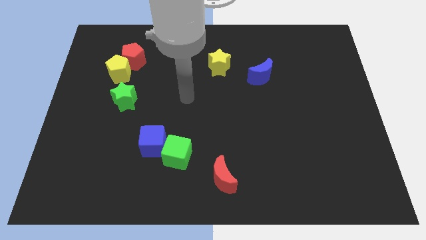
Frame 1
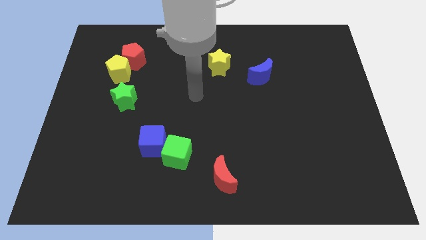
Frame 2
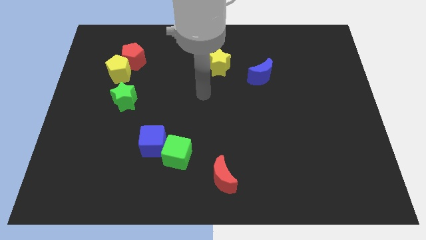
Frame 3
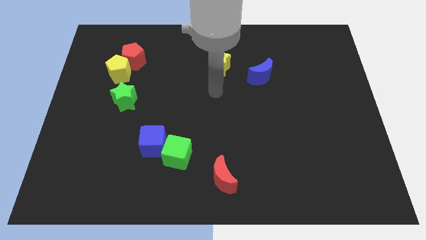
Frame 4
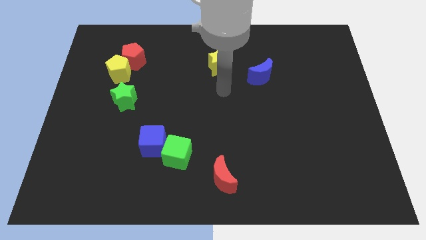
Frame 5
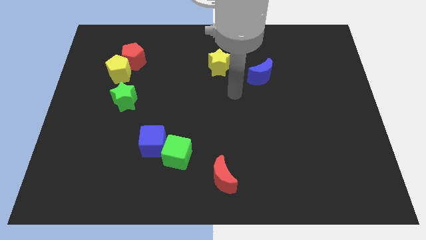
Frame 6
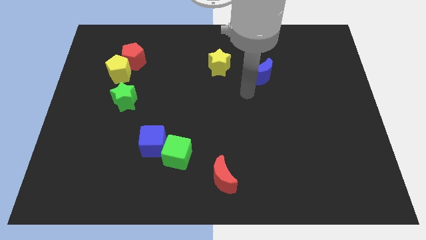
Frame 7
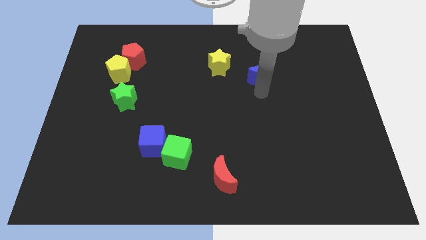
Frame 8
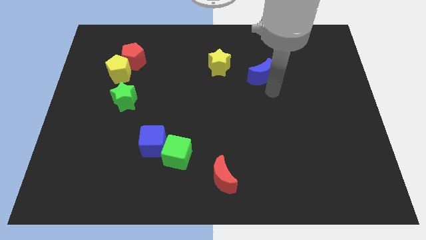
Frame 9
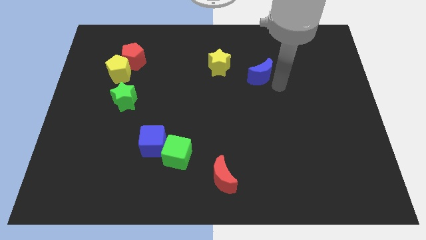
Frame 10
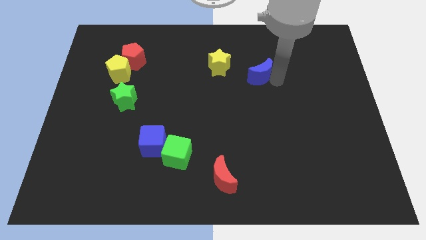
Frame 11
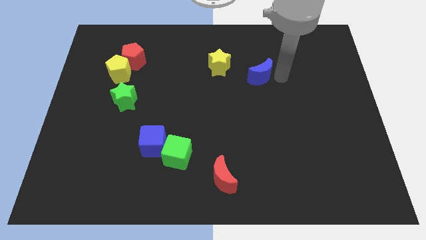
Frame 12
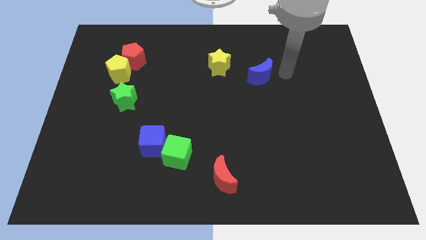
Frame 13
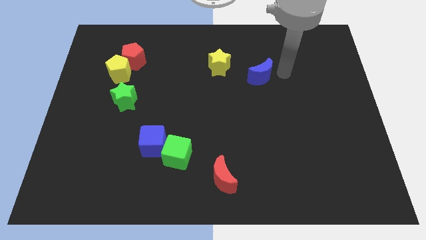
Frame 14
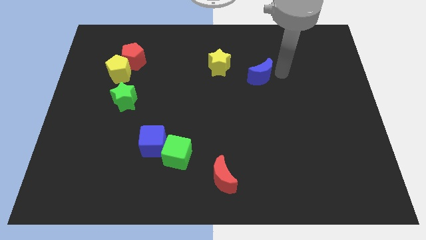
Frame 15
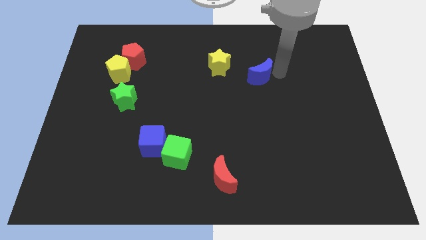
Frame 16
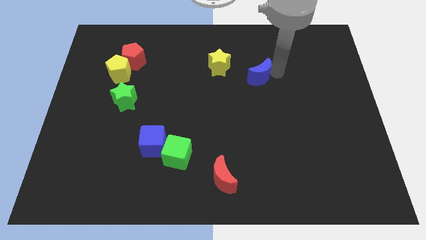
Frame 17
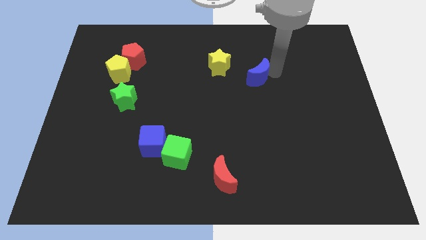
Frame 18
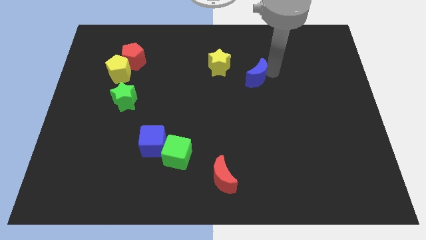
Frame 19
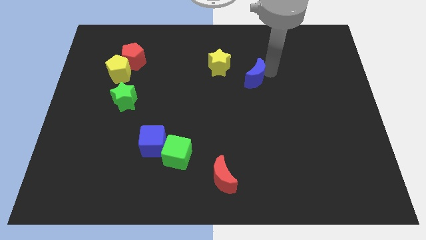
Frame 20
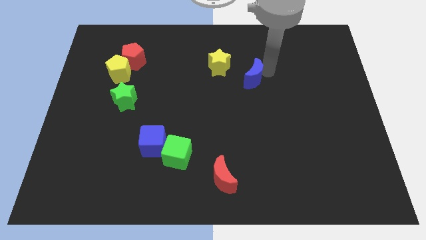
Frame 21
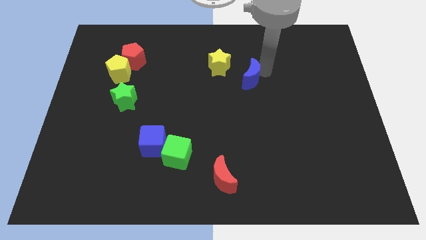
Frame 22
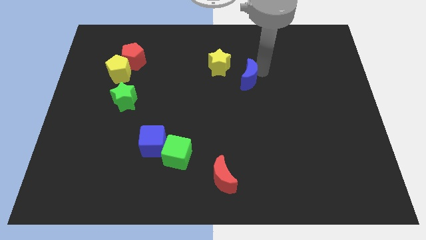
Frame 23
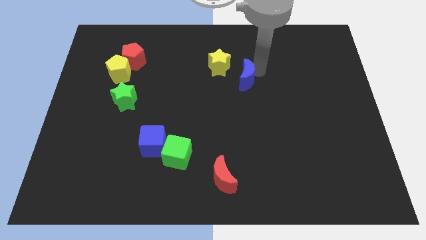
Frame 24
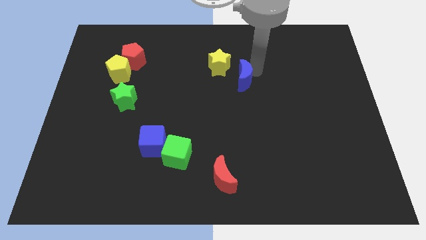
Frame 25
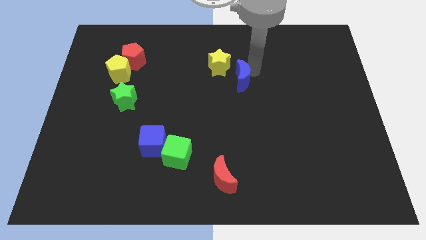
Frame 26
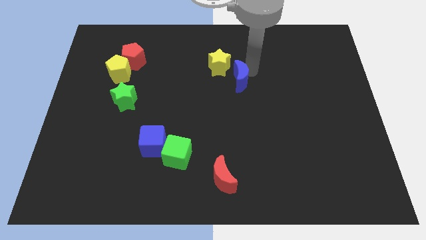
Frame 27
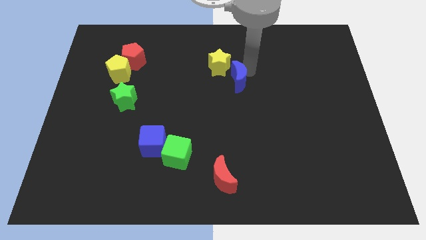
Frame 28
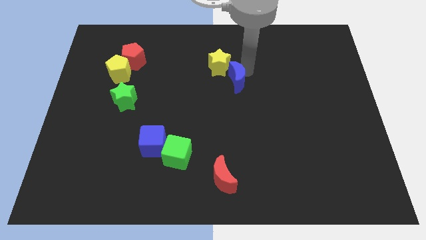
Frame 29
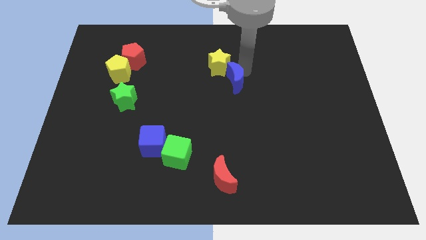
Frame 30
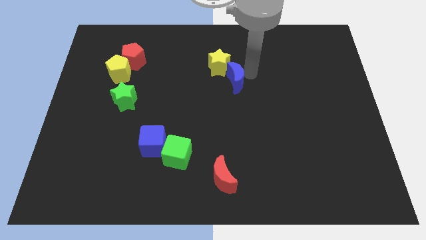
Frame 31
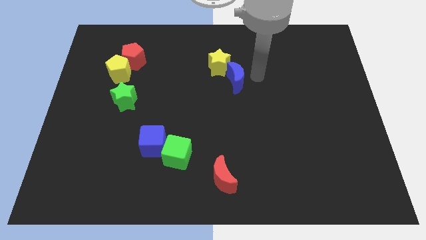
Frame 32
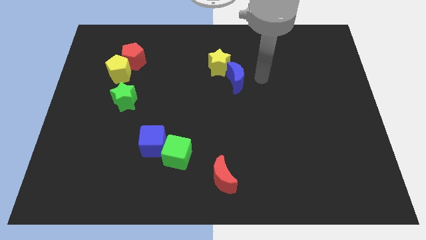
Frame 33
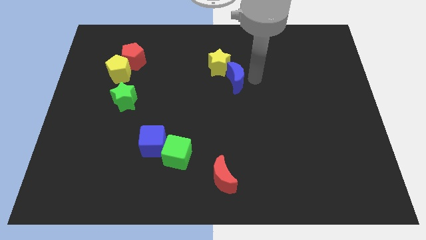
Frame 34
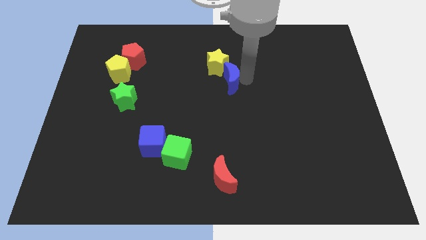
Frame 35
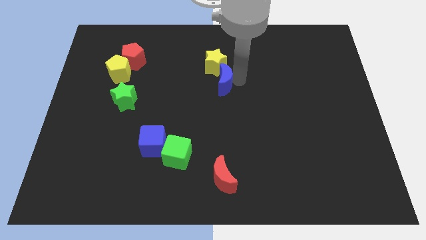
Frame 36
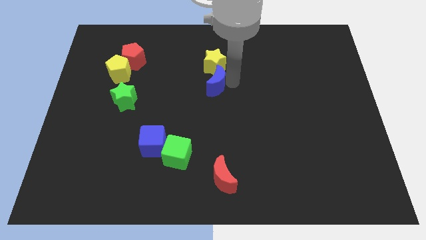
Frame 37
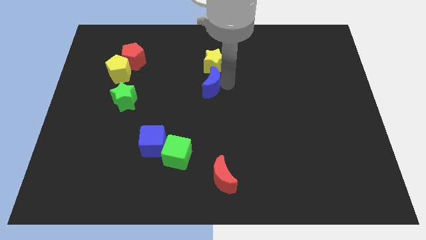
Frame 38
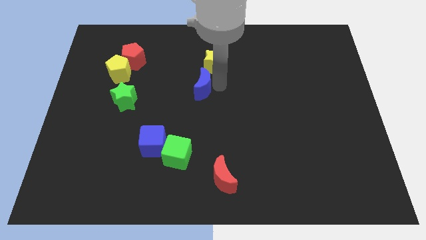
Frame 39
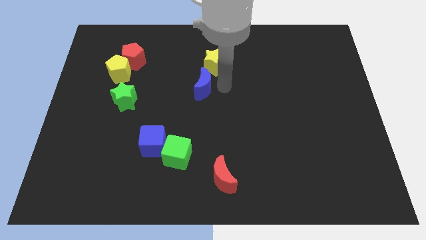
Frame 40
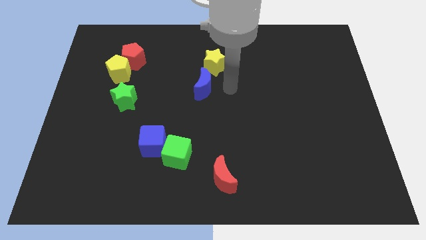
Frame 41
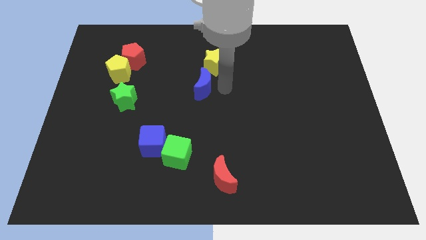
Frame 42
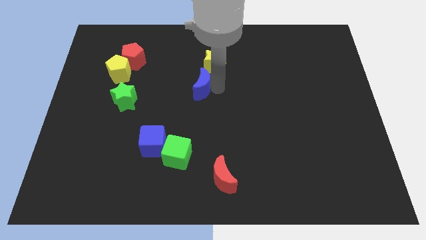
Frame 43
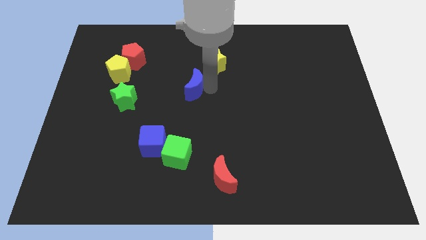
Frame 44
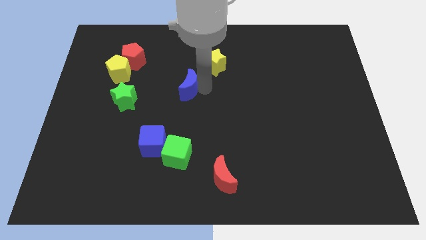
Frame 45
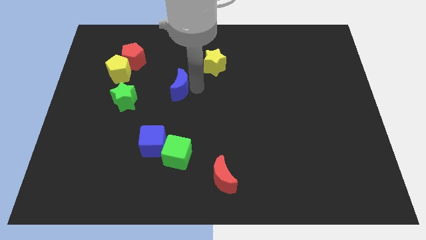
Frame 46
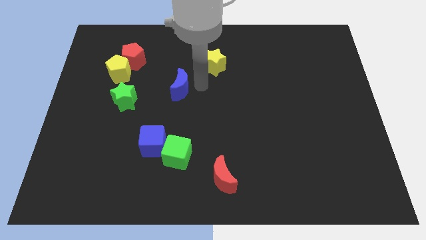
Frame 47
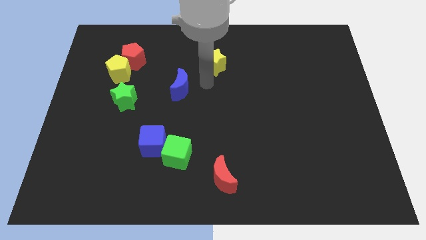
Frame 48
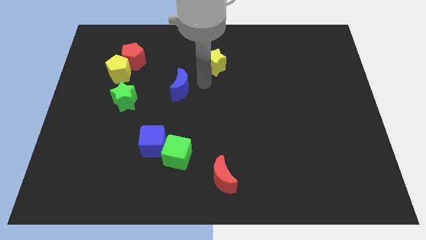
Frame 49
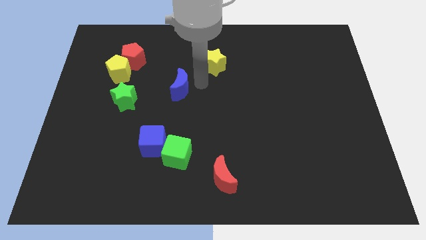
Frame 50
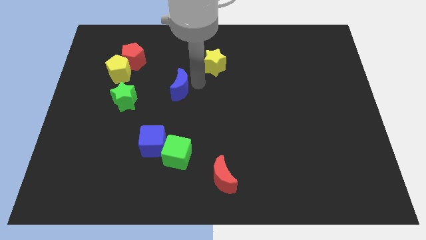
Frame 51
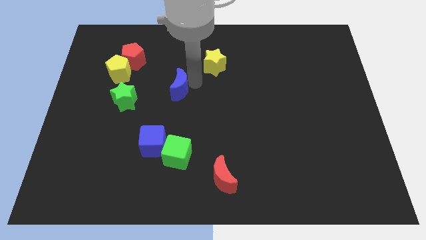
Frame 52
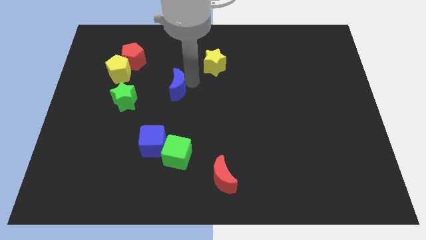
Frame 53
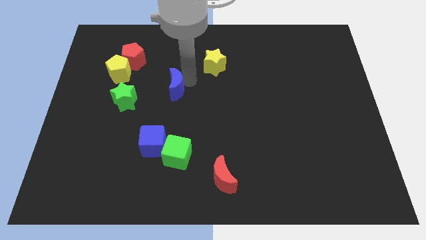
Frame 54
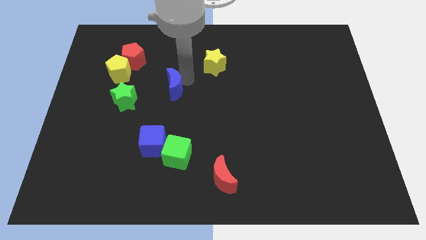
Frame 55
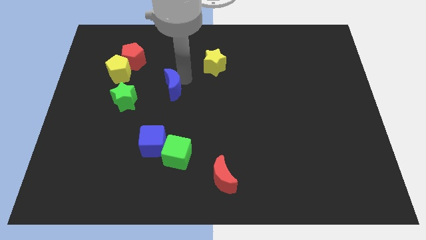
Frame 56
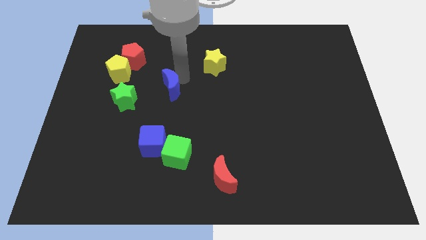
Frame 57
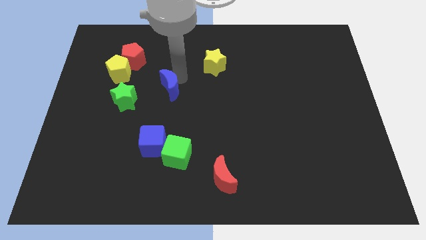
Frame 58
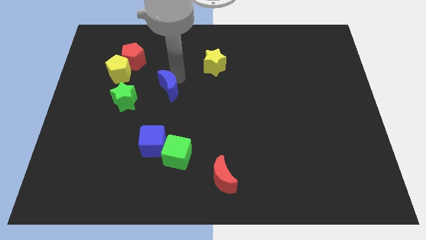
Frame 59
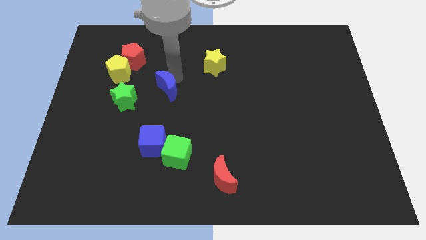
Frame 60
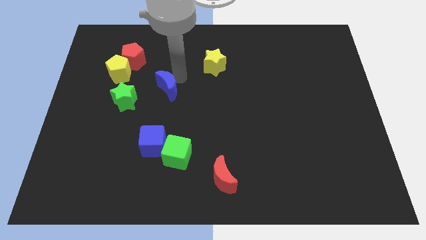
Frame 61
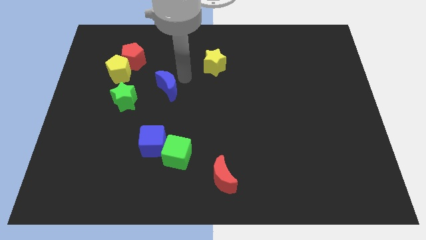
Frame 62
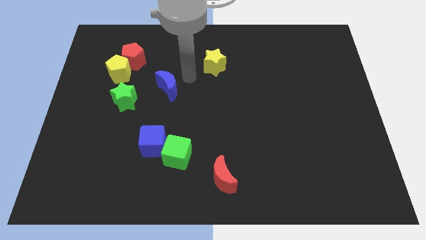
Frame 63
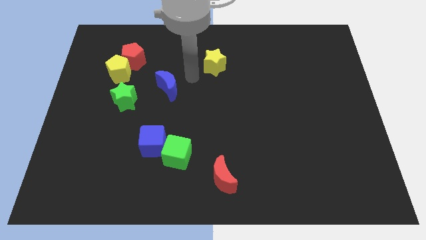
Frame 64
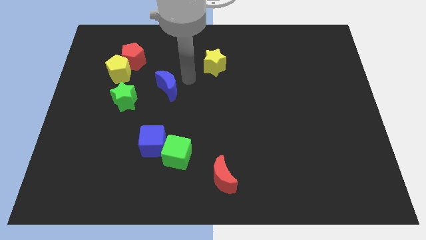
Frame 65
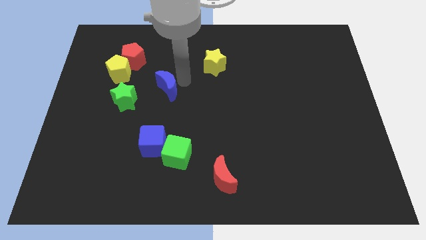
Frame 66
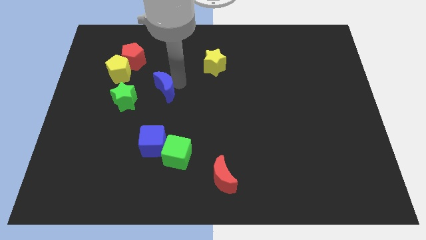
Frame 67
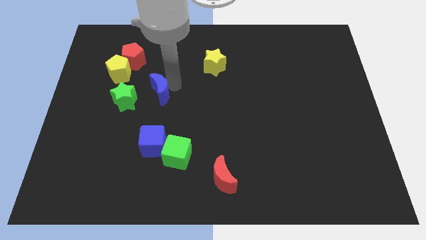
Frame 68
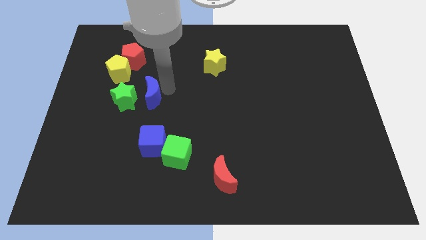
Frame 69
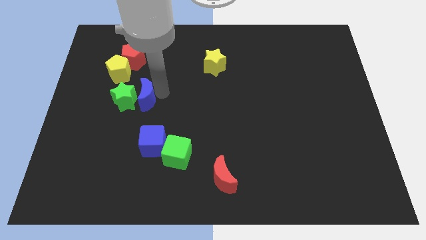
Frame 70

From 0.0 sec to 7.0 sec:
push the blue moon to the green star

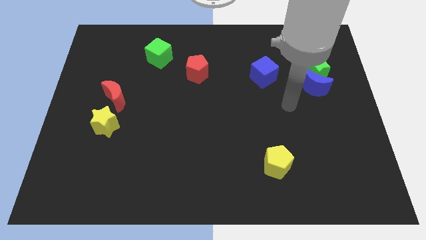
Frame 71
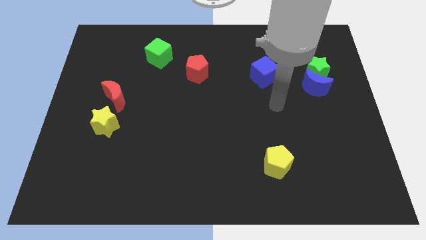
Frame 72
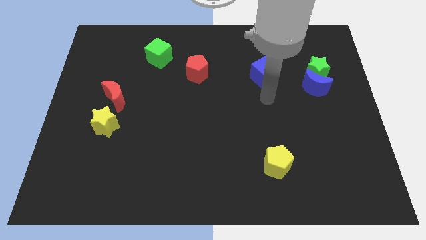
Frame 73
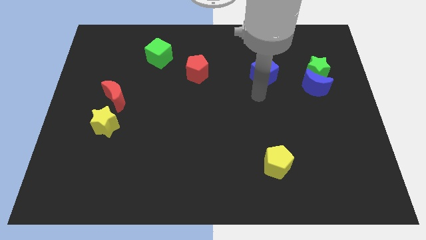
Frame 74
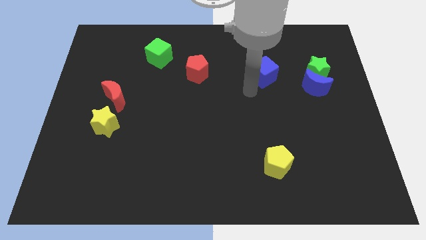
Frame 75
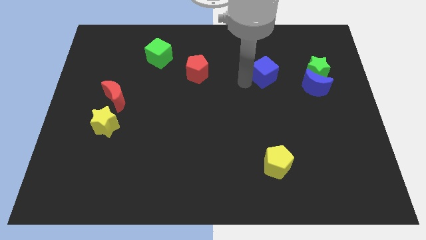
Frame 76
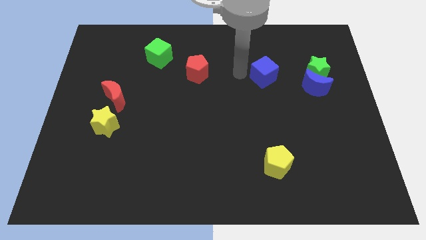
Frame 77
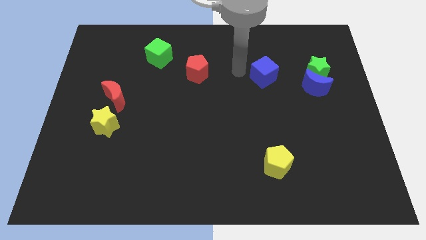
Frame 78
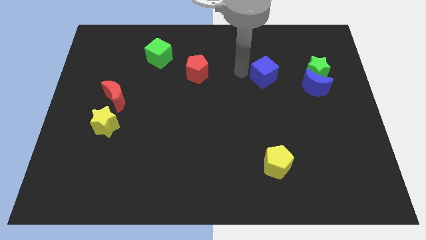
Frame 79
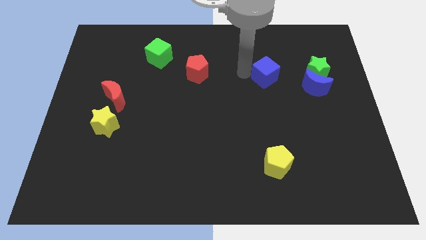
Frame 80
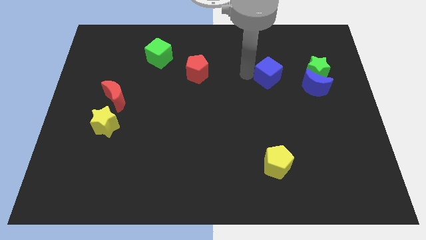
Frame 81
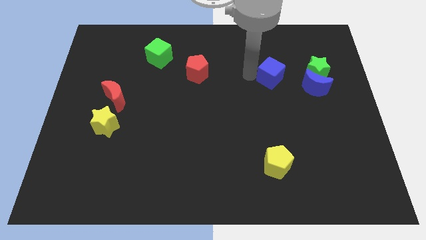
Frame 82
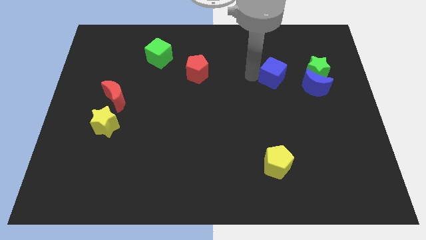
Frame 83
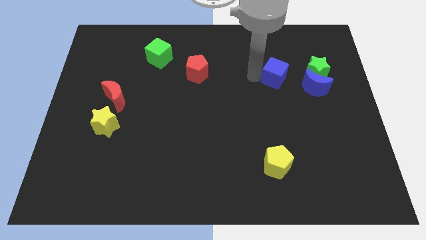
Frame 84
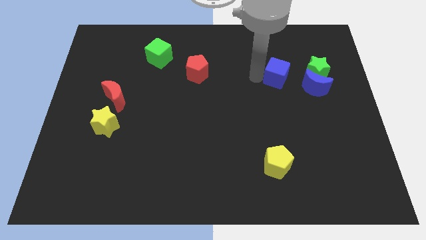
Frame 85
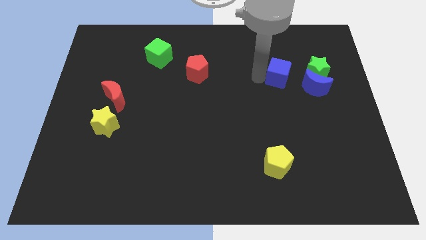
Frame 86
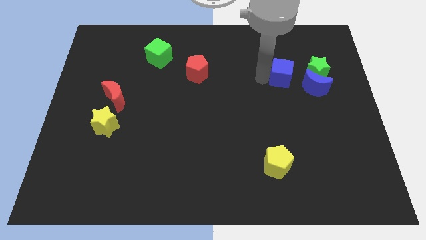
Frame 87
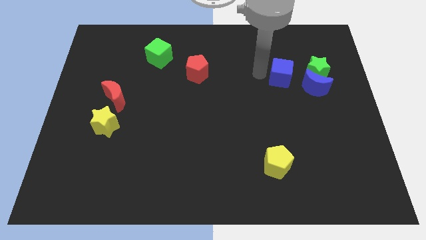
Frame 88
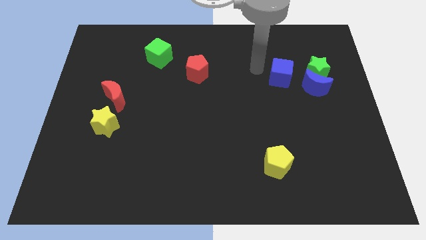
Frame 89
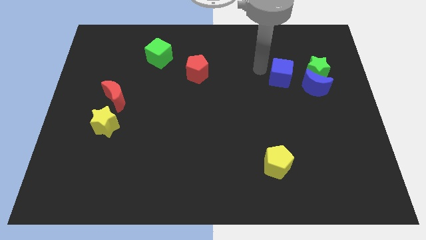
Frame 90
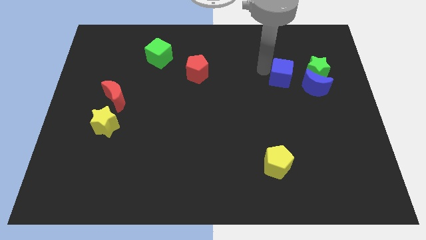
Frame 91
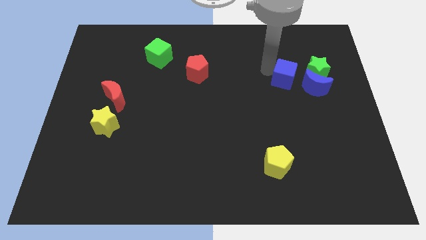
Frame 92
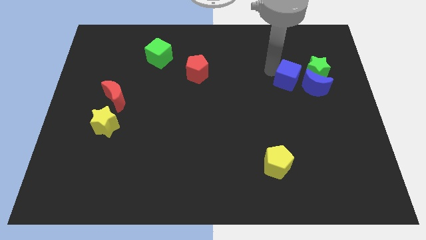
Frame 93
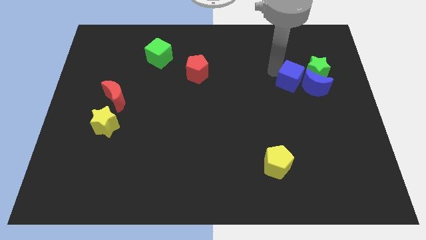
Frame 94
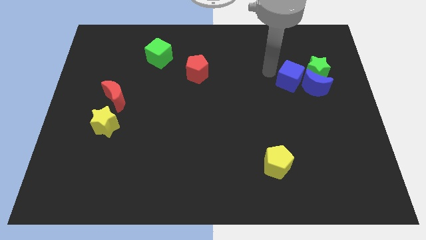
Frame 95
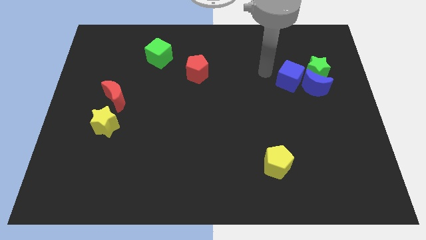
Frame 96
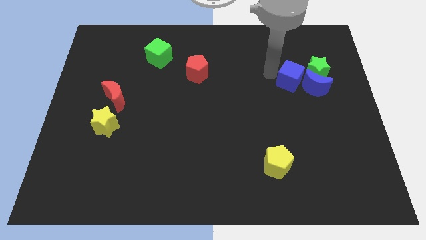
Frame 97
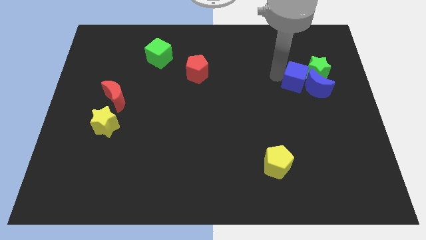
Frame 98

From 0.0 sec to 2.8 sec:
put the blue cube towards the blue moon
